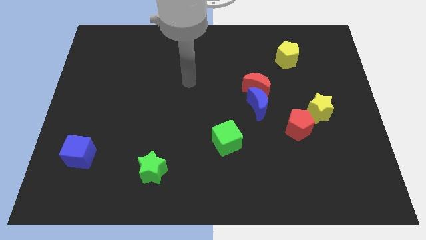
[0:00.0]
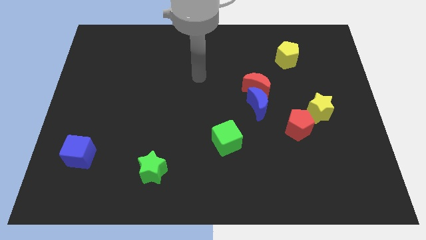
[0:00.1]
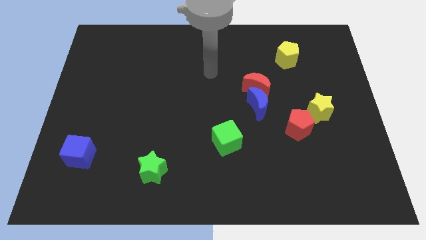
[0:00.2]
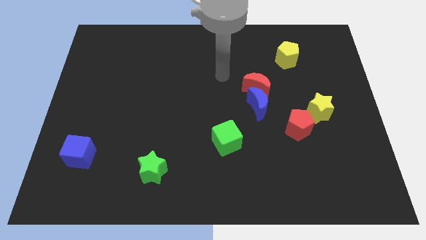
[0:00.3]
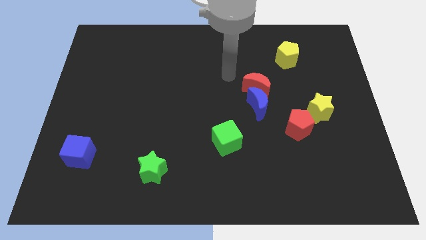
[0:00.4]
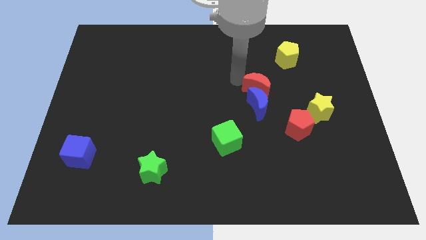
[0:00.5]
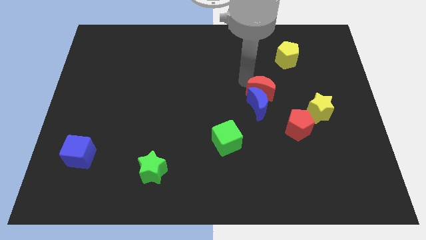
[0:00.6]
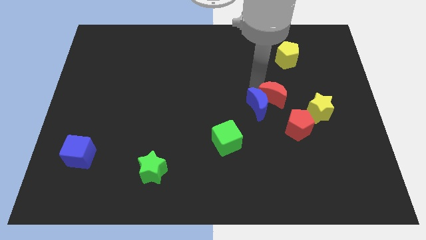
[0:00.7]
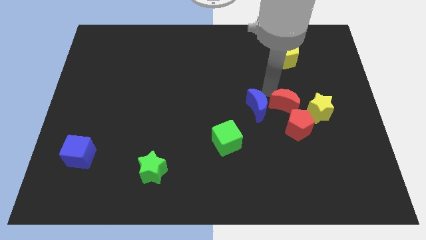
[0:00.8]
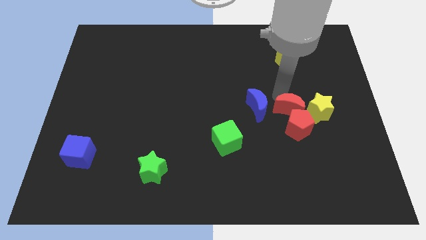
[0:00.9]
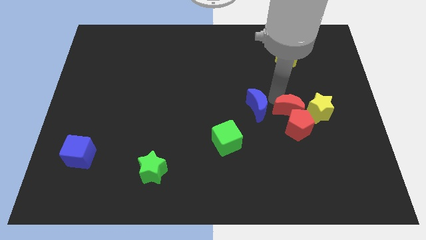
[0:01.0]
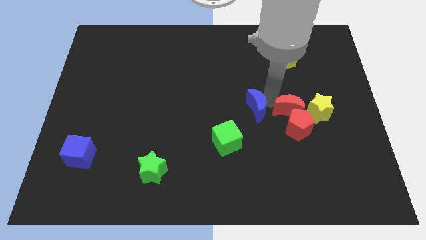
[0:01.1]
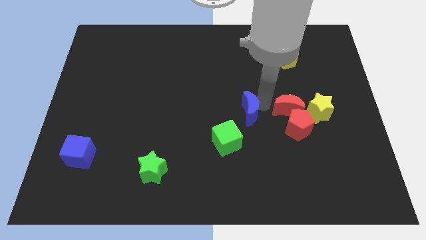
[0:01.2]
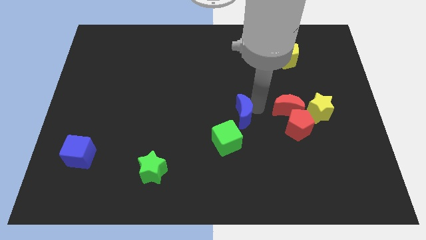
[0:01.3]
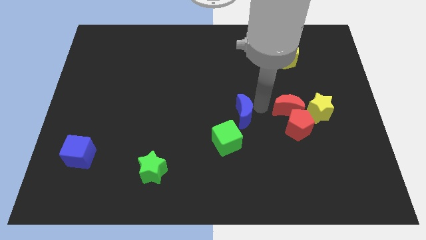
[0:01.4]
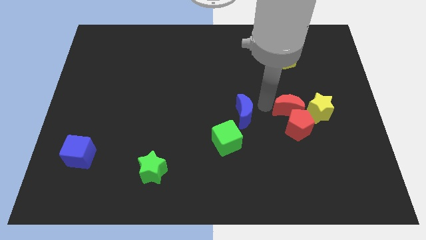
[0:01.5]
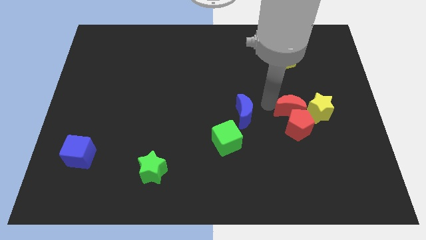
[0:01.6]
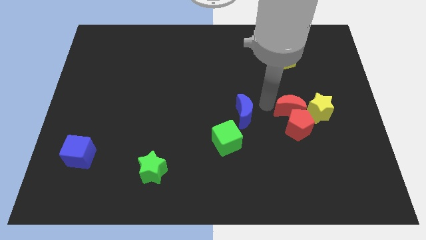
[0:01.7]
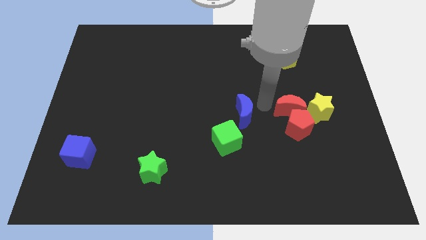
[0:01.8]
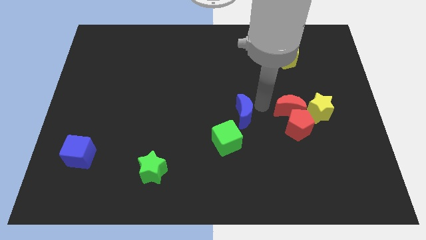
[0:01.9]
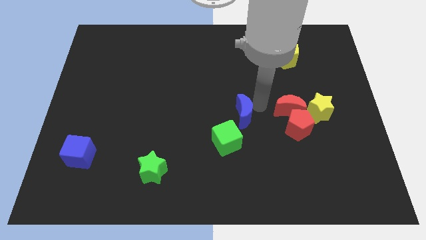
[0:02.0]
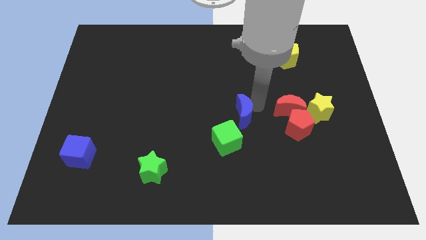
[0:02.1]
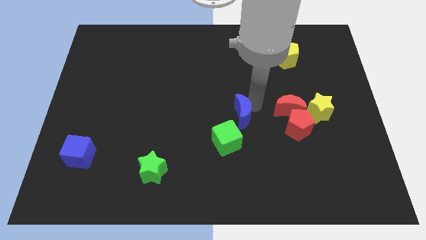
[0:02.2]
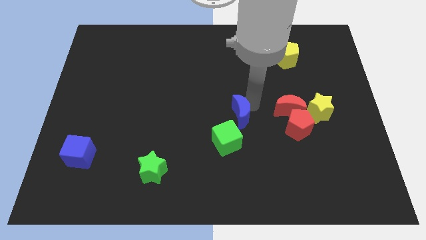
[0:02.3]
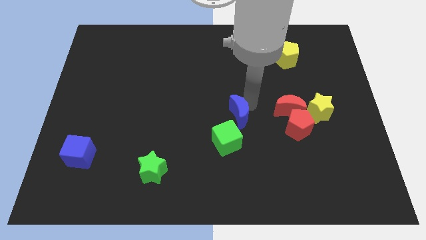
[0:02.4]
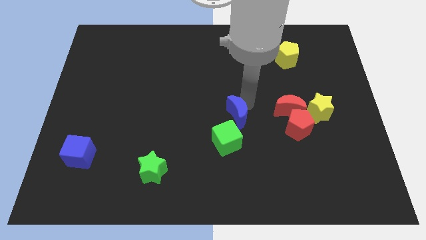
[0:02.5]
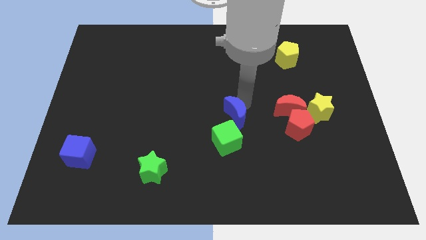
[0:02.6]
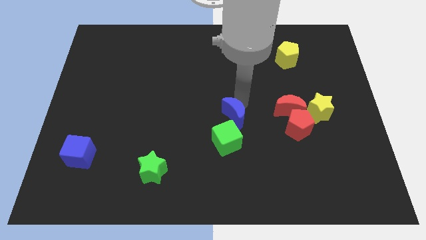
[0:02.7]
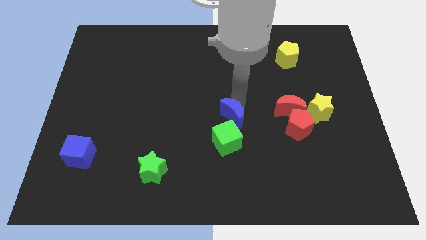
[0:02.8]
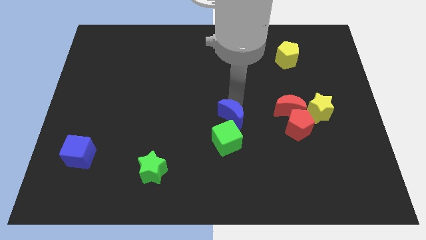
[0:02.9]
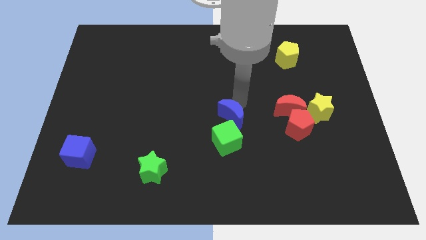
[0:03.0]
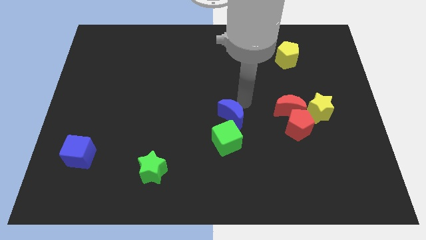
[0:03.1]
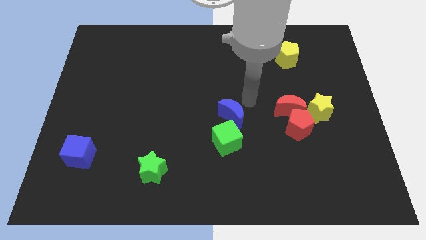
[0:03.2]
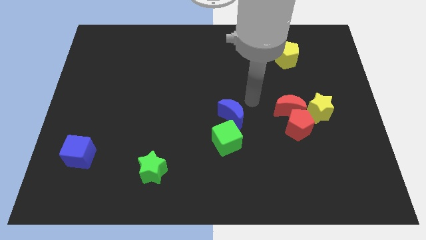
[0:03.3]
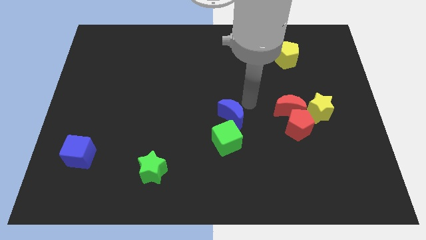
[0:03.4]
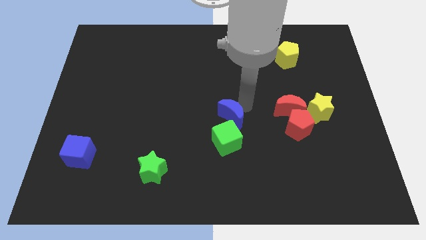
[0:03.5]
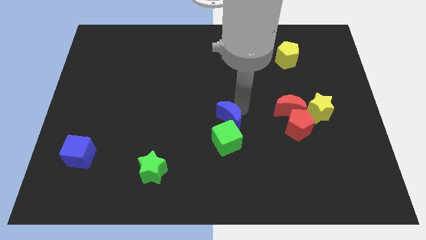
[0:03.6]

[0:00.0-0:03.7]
move the blue moon a bit diagonally downwards and to the left

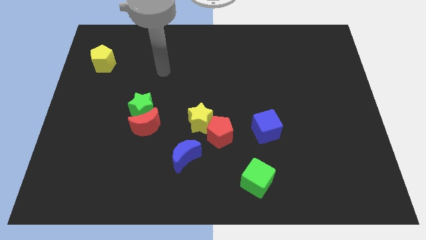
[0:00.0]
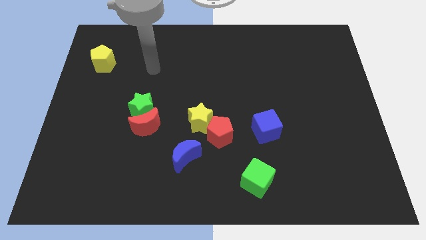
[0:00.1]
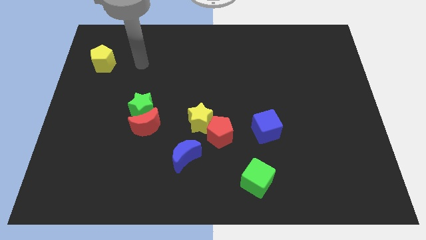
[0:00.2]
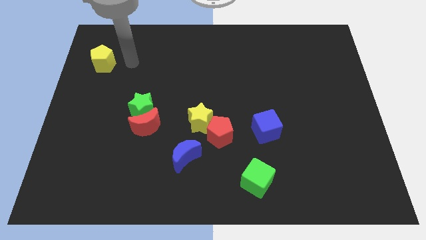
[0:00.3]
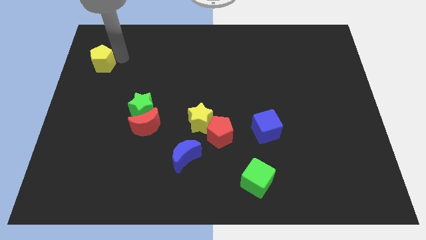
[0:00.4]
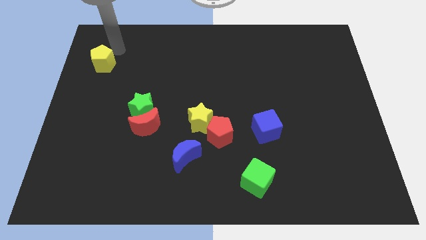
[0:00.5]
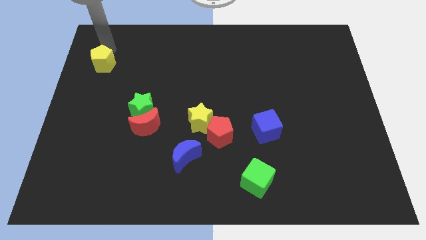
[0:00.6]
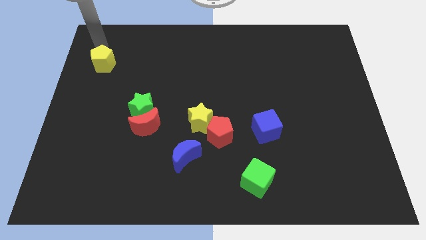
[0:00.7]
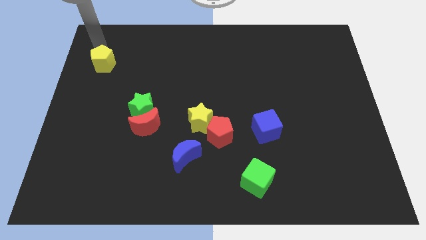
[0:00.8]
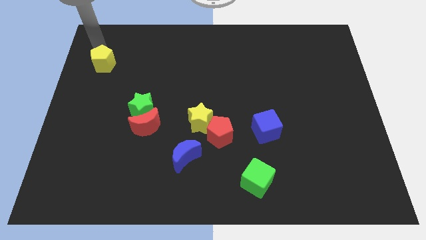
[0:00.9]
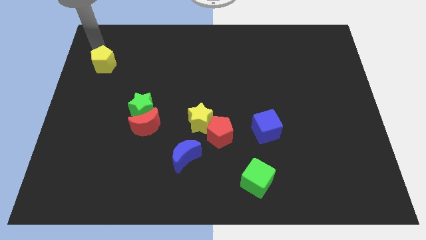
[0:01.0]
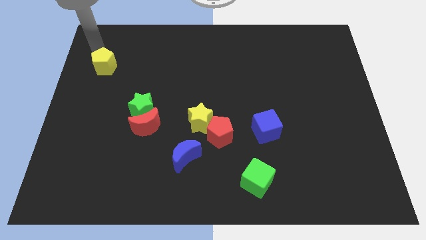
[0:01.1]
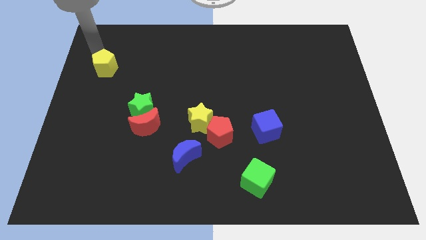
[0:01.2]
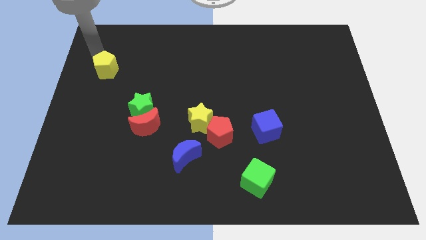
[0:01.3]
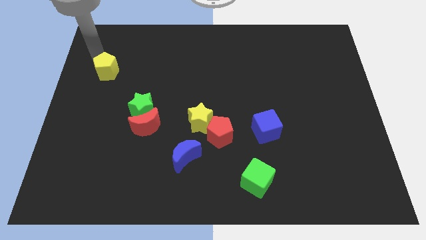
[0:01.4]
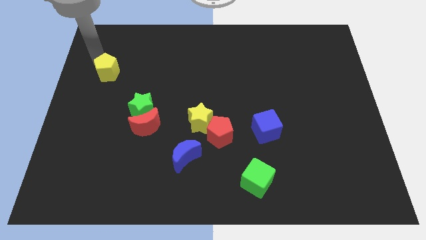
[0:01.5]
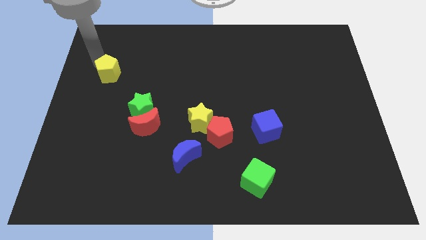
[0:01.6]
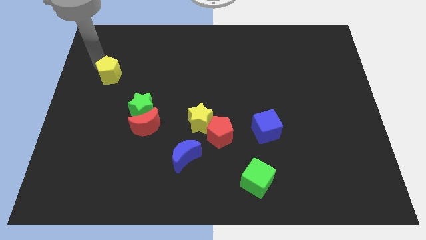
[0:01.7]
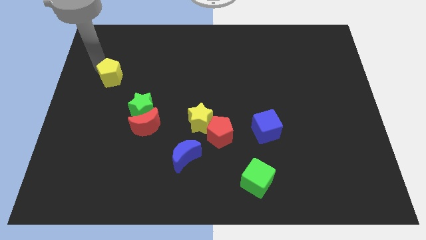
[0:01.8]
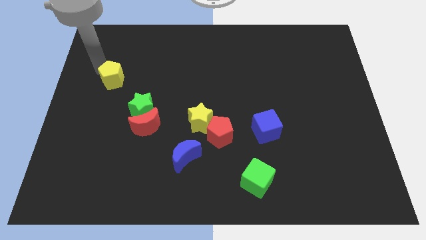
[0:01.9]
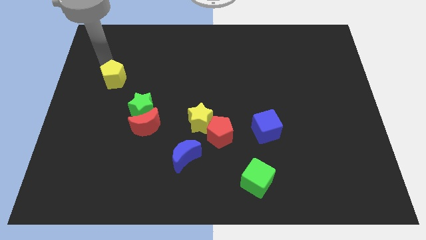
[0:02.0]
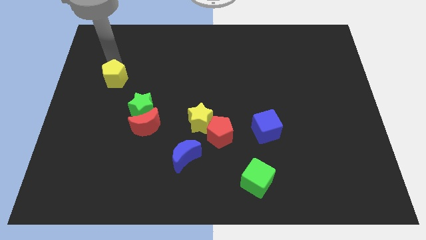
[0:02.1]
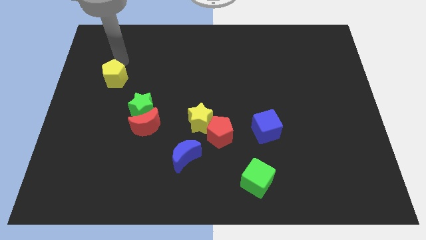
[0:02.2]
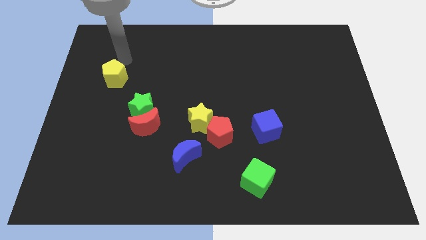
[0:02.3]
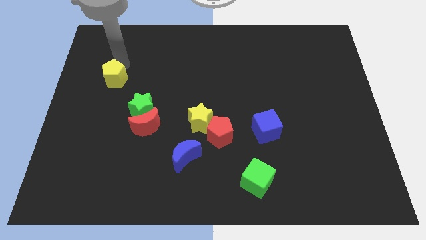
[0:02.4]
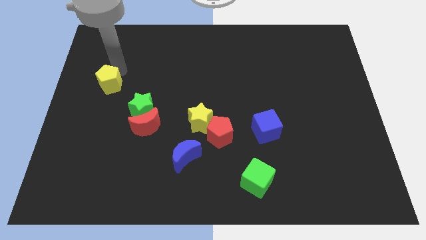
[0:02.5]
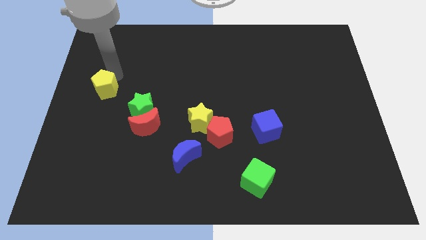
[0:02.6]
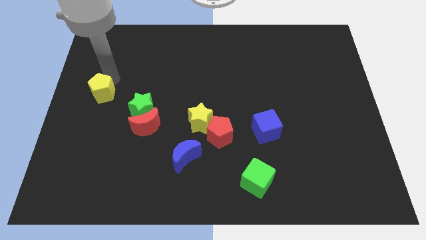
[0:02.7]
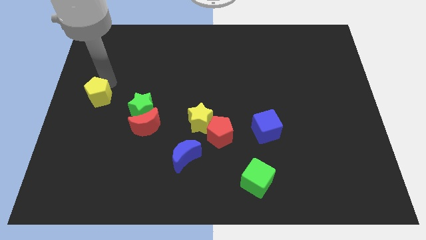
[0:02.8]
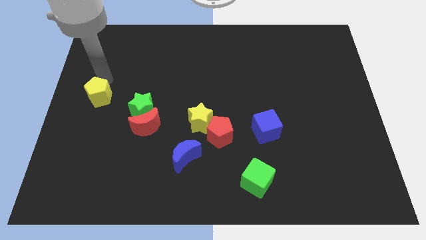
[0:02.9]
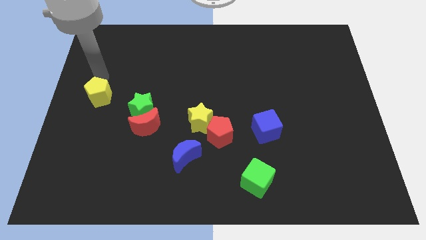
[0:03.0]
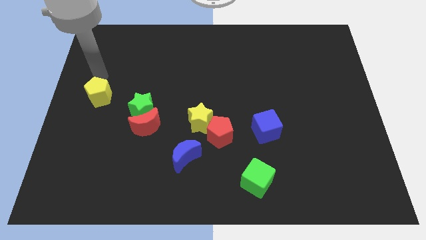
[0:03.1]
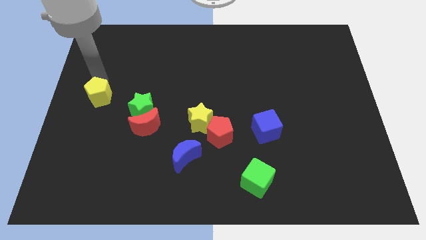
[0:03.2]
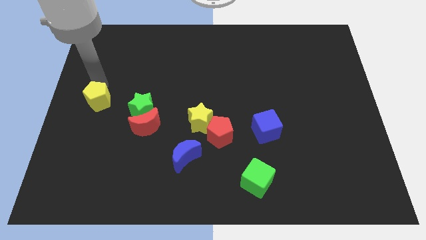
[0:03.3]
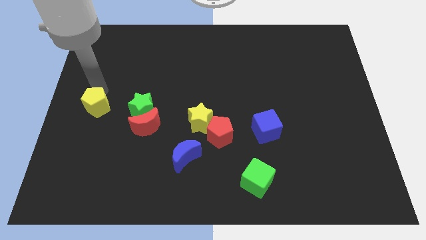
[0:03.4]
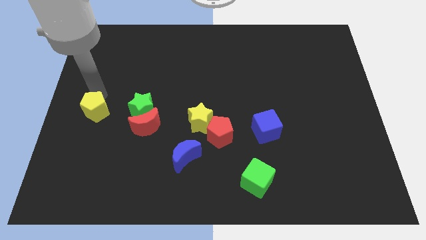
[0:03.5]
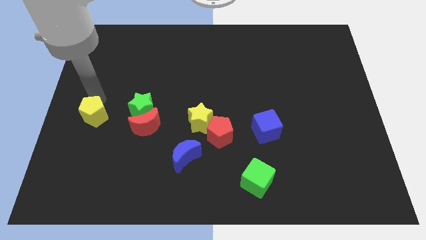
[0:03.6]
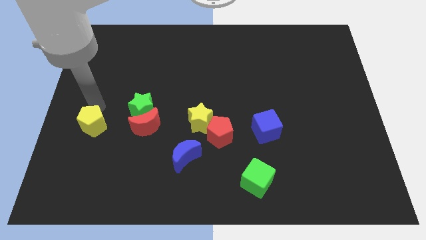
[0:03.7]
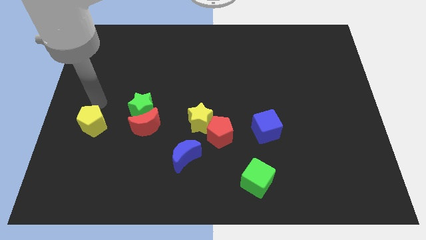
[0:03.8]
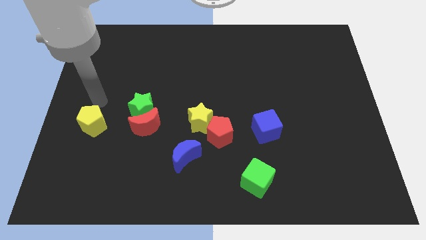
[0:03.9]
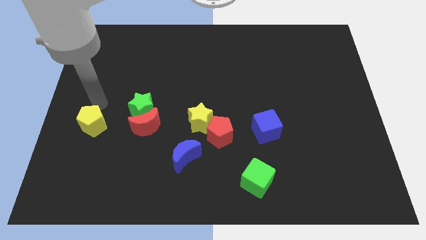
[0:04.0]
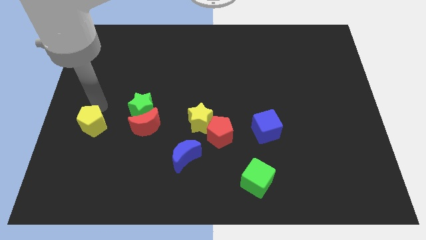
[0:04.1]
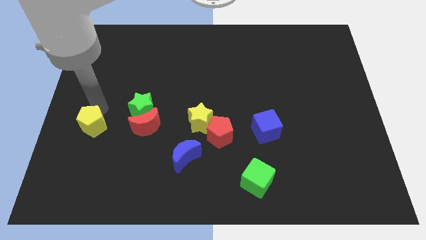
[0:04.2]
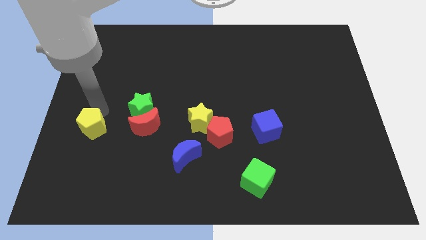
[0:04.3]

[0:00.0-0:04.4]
move the yellow pentagon downwards
